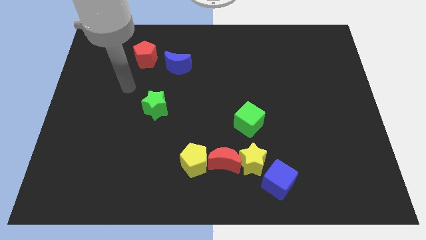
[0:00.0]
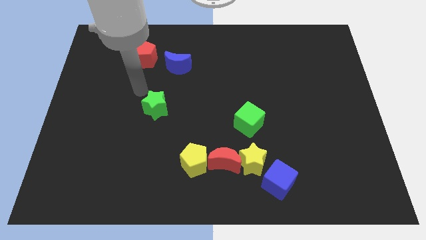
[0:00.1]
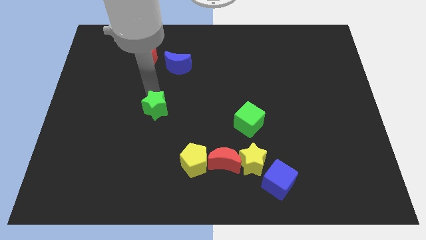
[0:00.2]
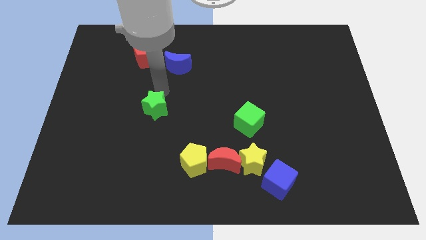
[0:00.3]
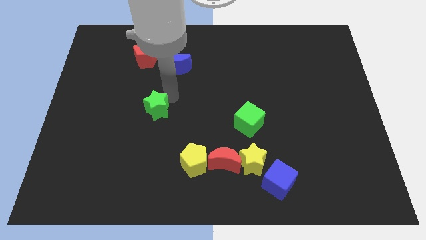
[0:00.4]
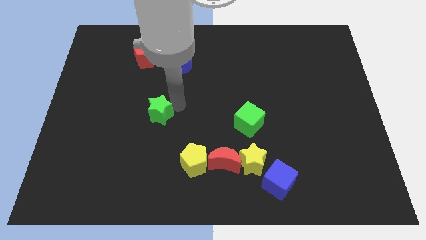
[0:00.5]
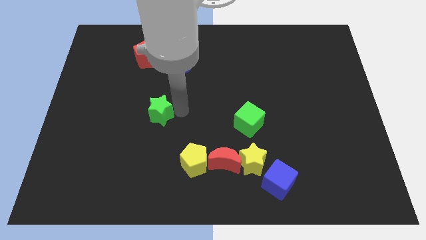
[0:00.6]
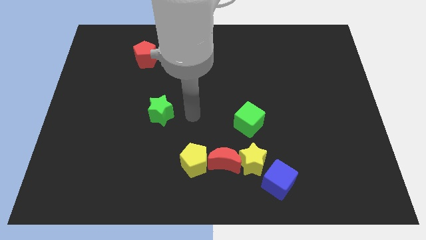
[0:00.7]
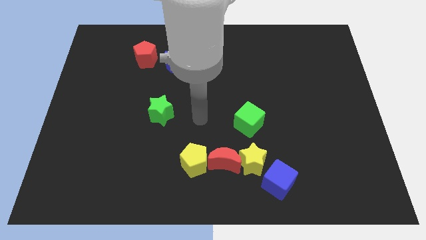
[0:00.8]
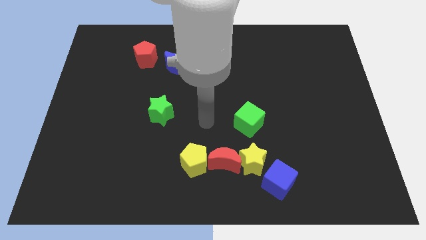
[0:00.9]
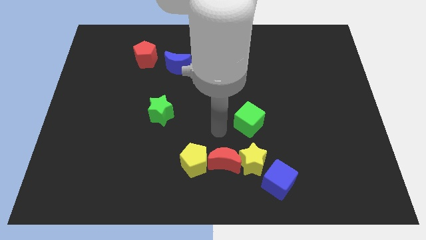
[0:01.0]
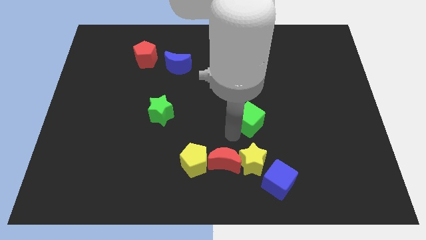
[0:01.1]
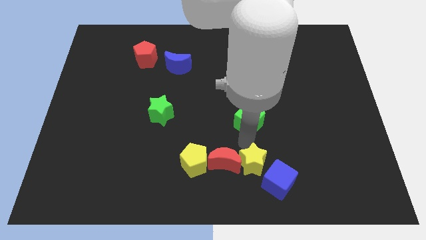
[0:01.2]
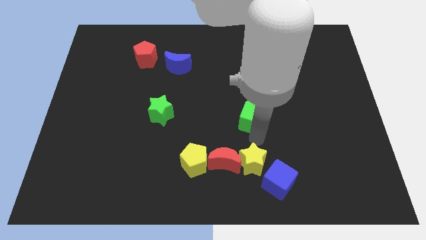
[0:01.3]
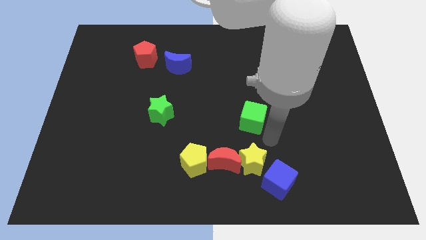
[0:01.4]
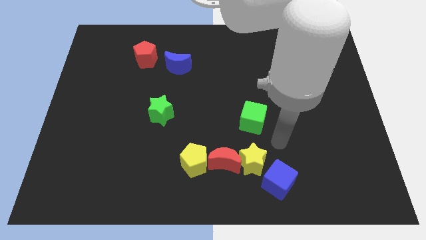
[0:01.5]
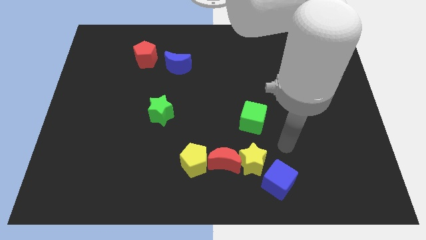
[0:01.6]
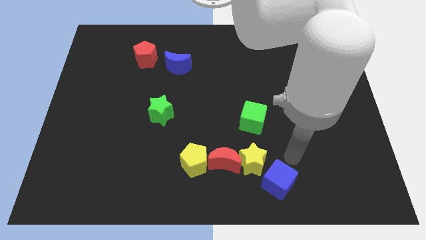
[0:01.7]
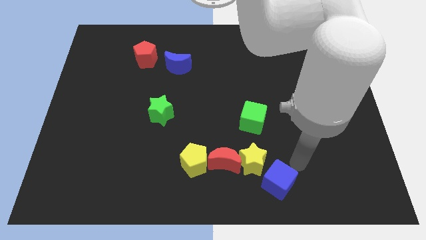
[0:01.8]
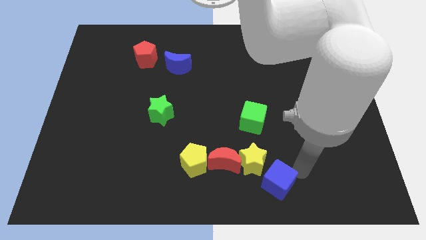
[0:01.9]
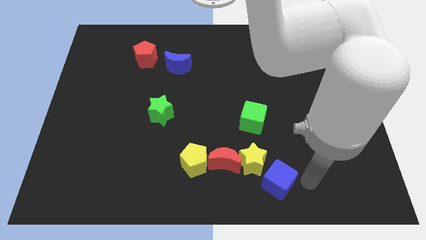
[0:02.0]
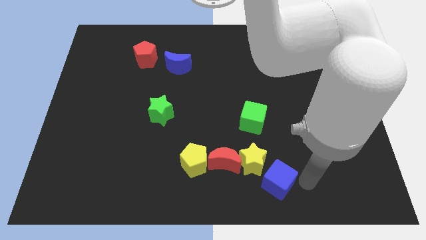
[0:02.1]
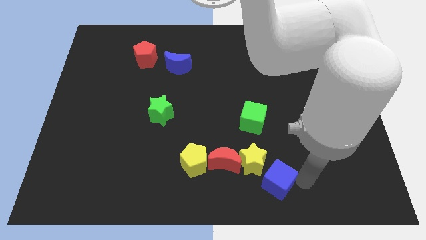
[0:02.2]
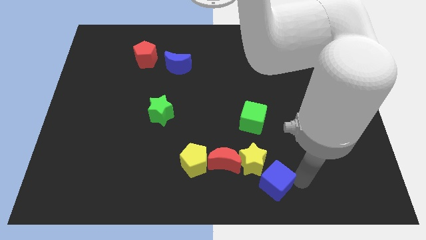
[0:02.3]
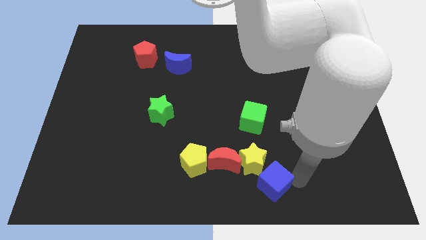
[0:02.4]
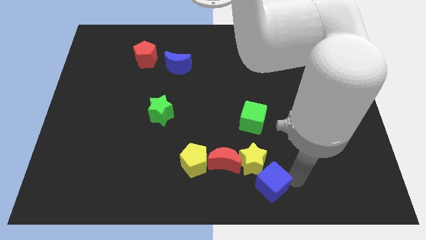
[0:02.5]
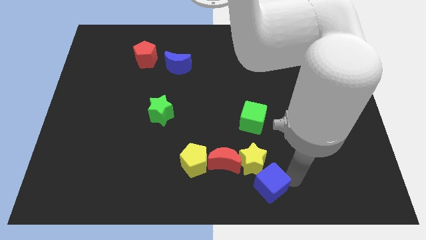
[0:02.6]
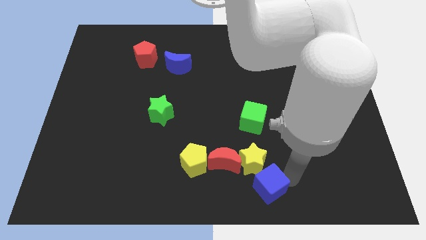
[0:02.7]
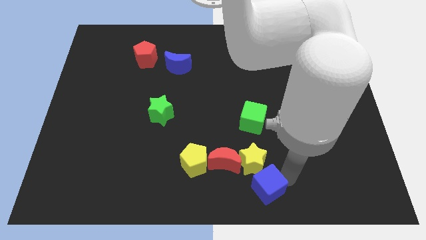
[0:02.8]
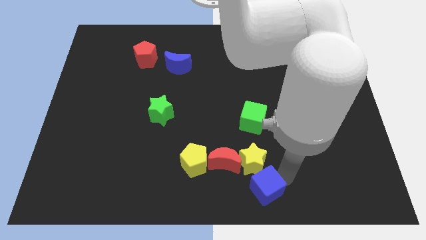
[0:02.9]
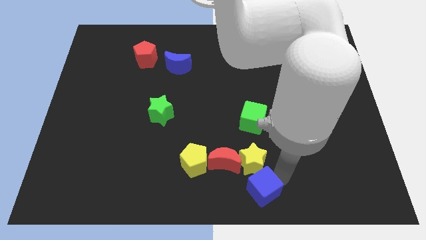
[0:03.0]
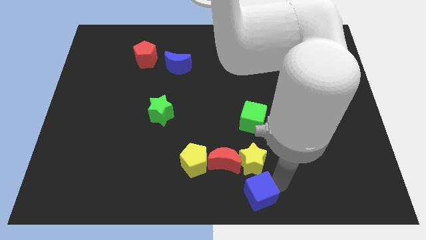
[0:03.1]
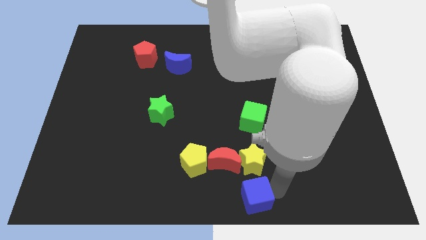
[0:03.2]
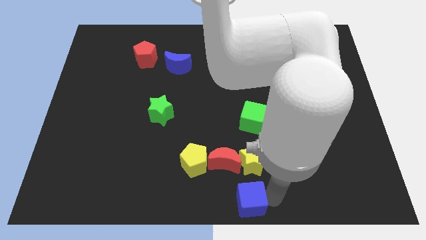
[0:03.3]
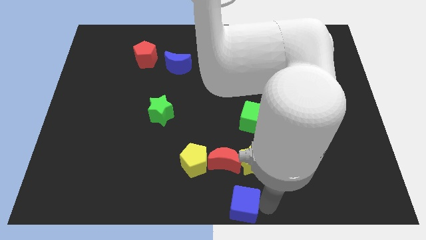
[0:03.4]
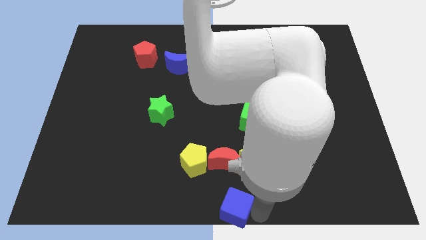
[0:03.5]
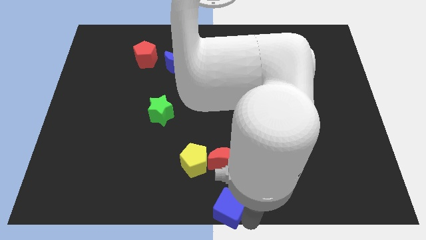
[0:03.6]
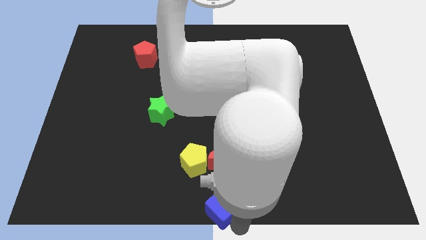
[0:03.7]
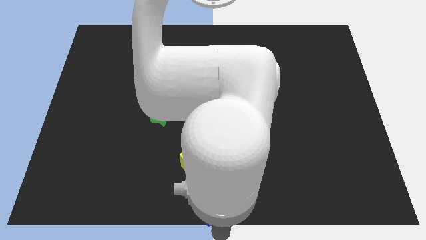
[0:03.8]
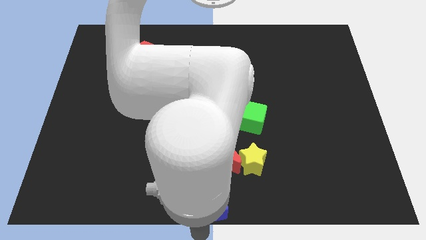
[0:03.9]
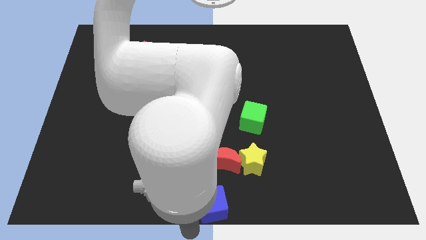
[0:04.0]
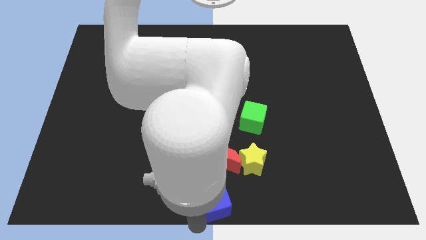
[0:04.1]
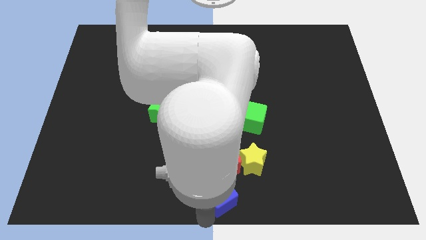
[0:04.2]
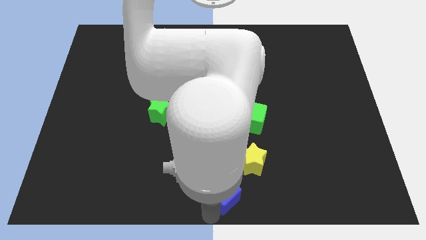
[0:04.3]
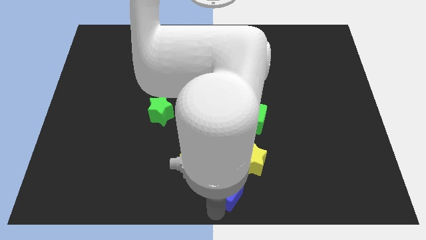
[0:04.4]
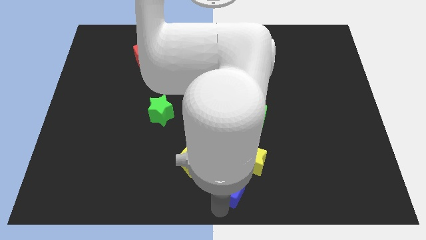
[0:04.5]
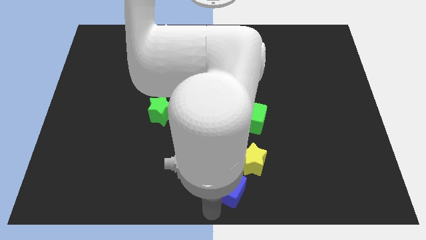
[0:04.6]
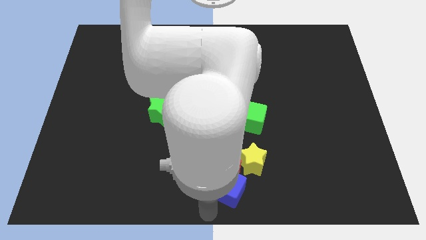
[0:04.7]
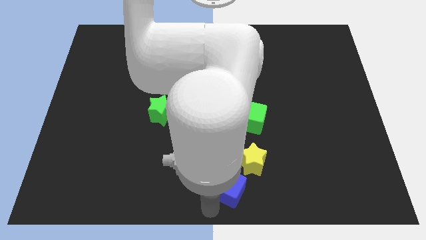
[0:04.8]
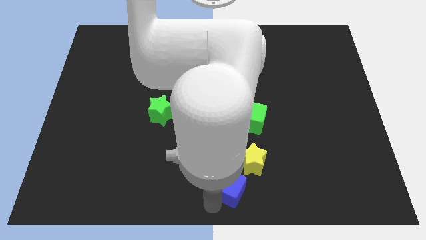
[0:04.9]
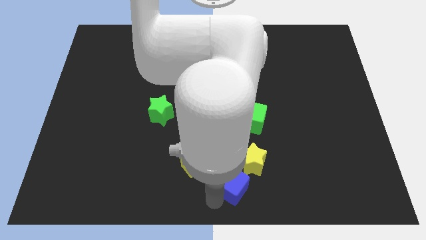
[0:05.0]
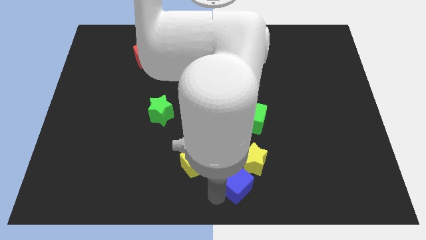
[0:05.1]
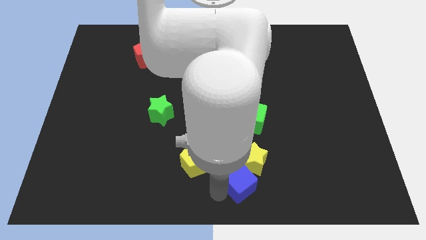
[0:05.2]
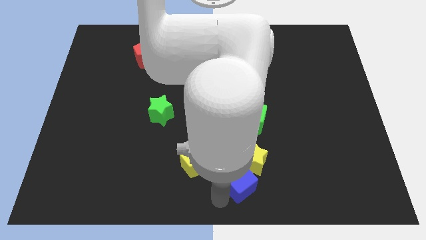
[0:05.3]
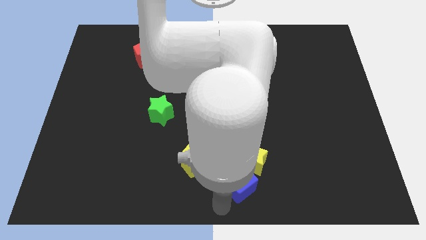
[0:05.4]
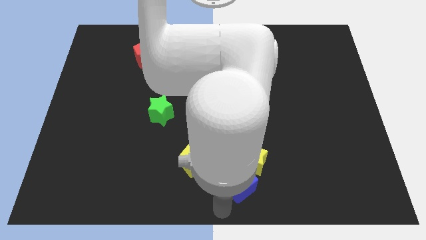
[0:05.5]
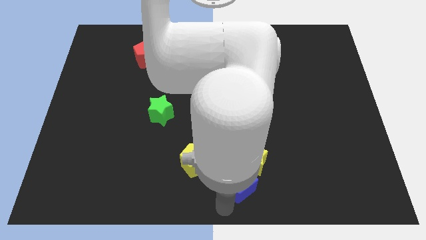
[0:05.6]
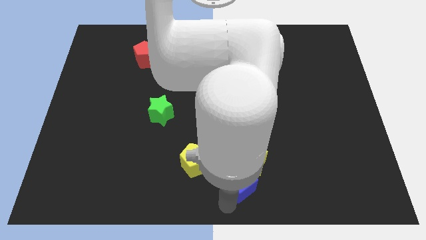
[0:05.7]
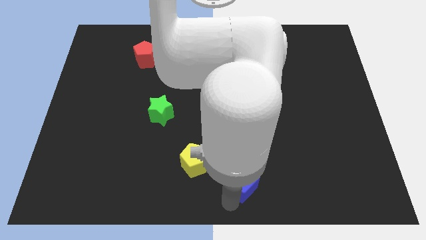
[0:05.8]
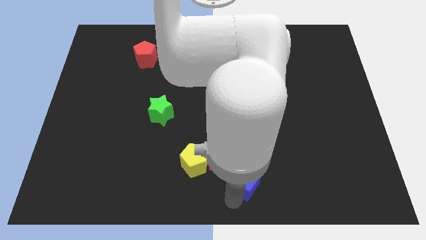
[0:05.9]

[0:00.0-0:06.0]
put the blue cube to the bottom of the green cube

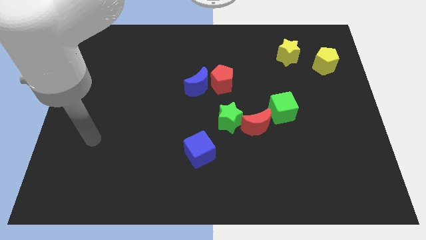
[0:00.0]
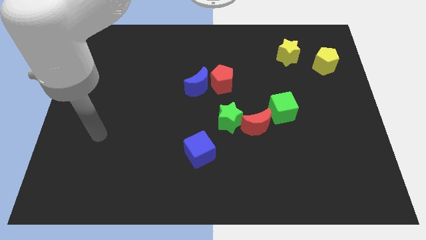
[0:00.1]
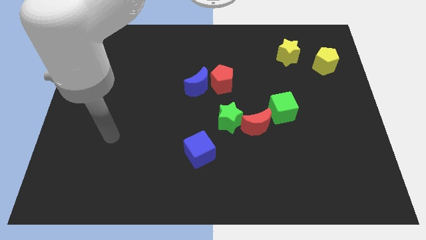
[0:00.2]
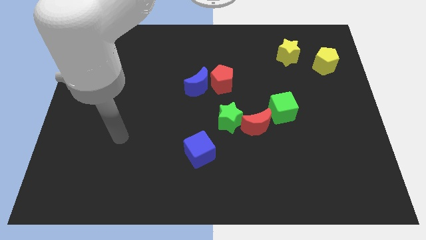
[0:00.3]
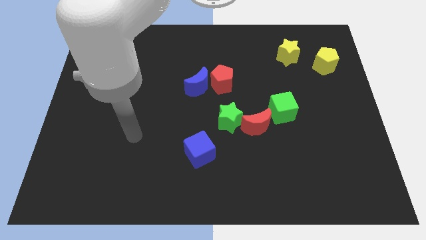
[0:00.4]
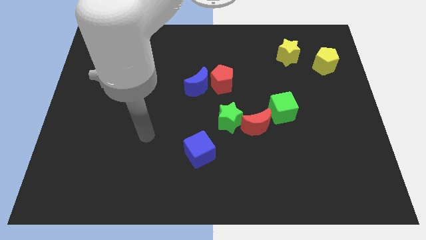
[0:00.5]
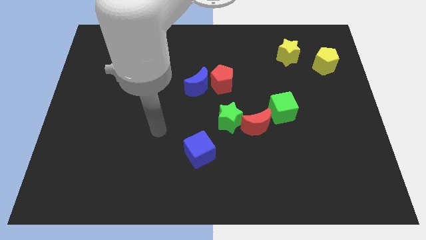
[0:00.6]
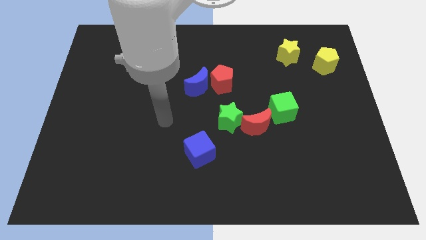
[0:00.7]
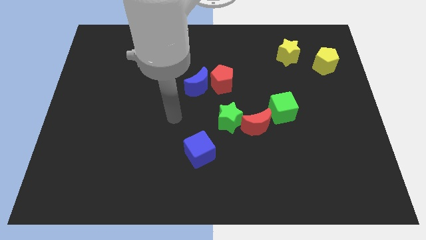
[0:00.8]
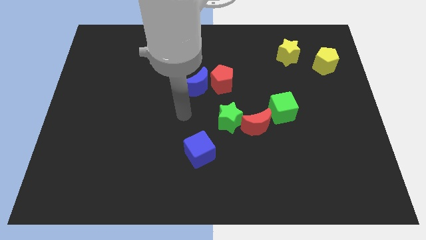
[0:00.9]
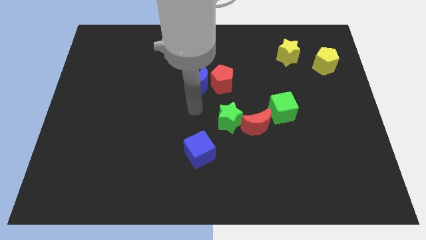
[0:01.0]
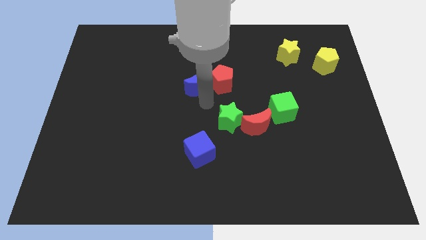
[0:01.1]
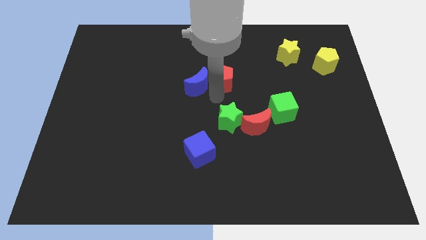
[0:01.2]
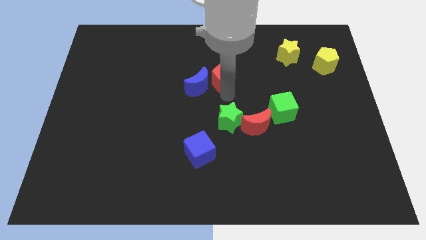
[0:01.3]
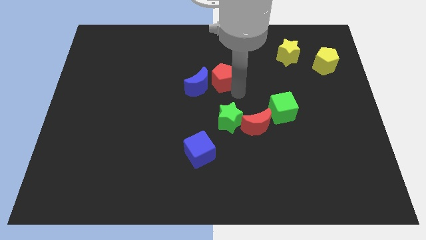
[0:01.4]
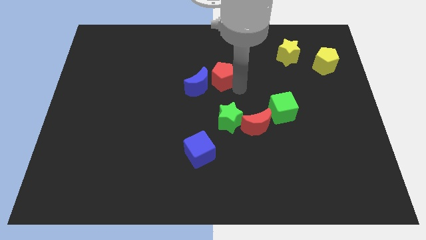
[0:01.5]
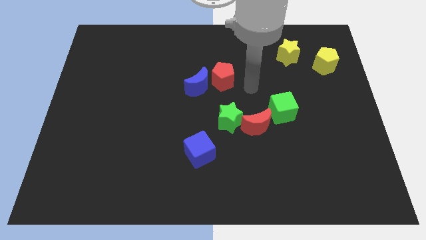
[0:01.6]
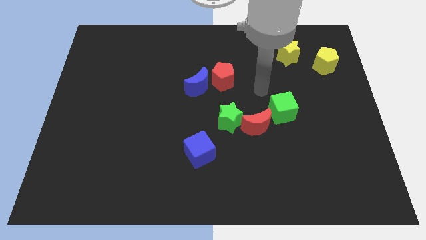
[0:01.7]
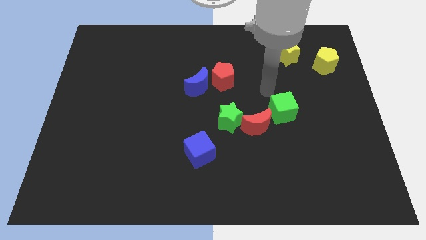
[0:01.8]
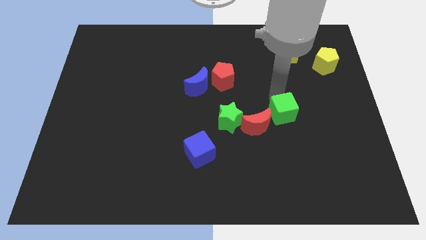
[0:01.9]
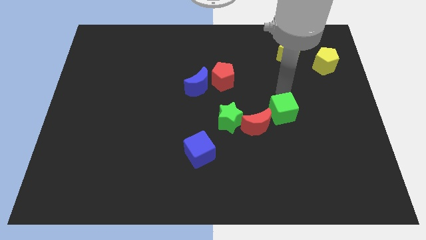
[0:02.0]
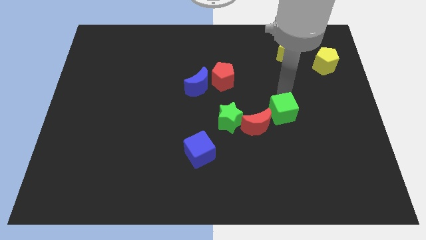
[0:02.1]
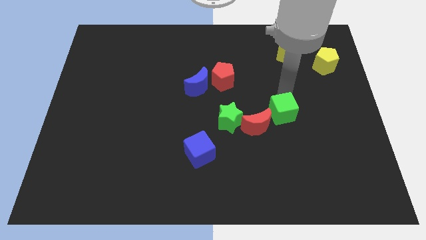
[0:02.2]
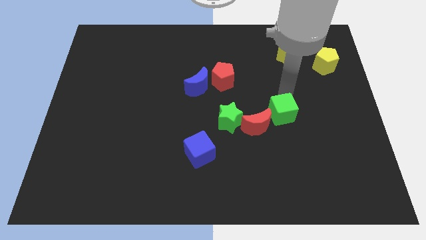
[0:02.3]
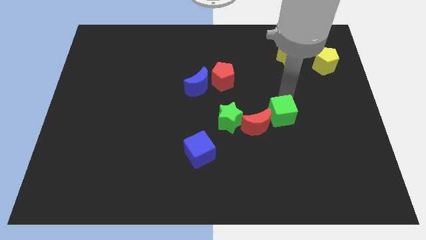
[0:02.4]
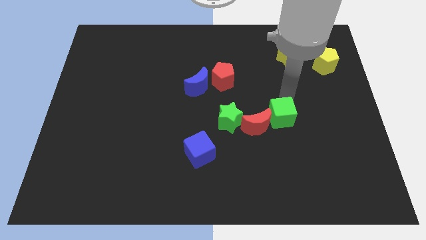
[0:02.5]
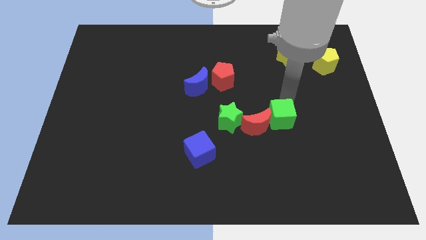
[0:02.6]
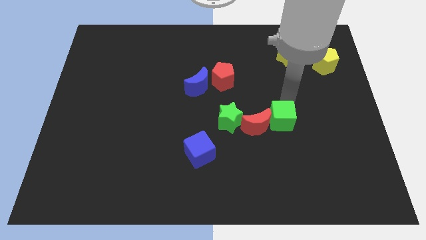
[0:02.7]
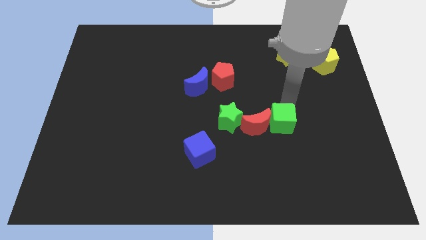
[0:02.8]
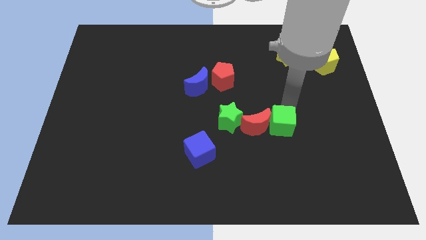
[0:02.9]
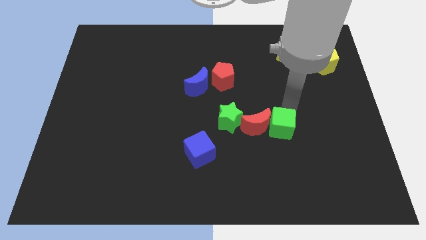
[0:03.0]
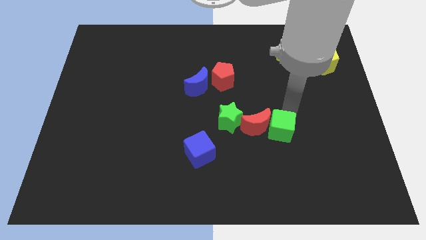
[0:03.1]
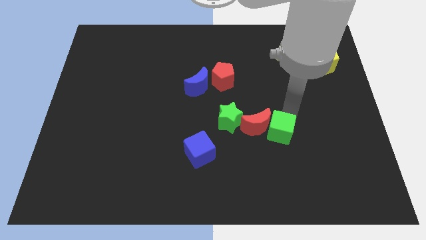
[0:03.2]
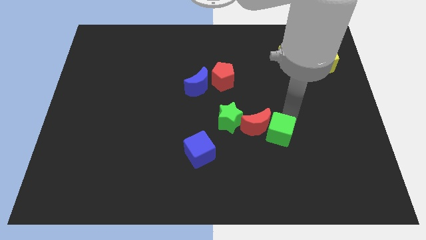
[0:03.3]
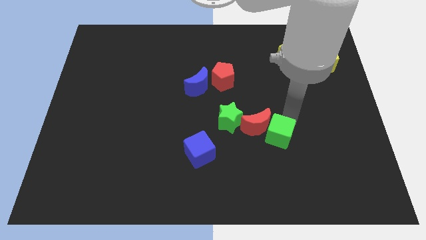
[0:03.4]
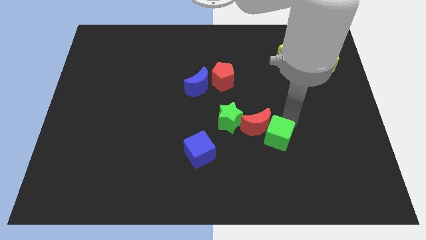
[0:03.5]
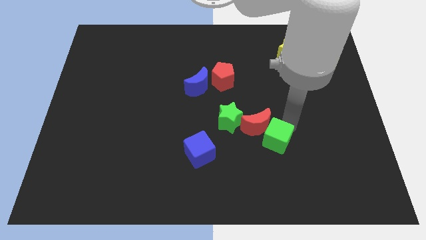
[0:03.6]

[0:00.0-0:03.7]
slide the green cube below the red moon
